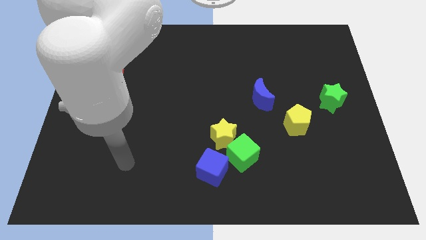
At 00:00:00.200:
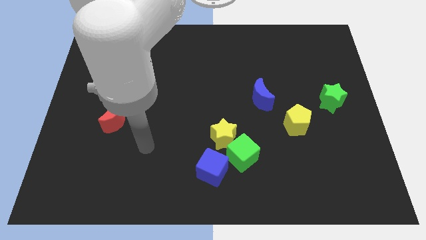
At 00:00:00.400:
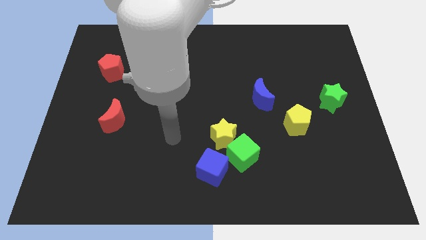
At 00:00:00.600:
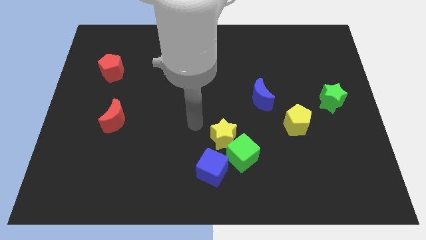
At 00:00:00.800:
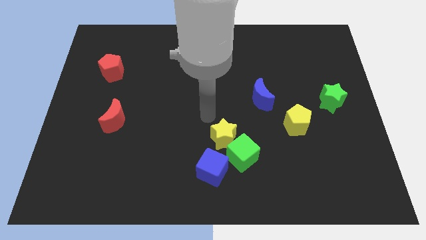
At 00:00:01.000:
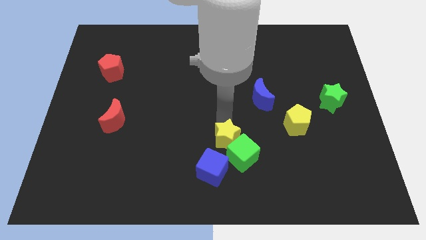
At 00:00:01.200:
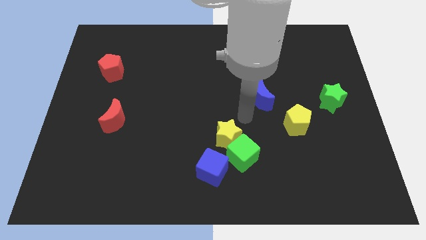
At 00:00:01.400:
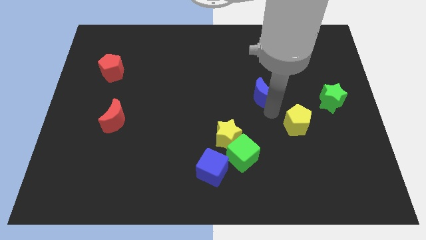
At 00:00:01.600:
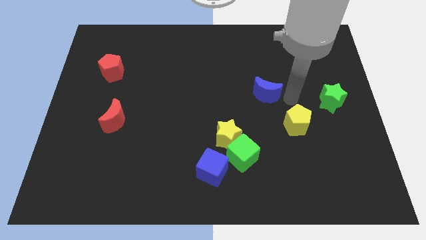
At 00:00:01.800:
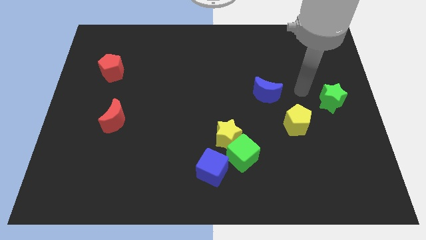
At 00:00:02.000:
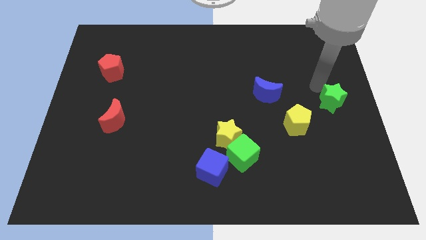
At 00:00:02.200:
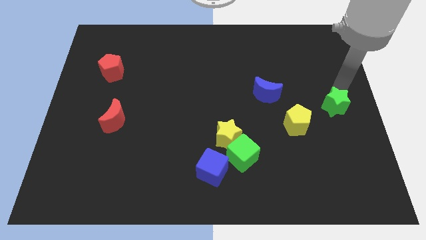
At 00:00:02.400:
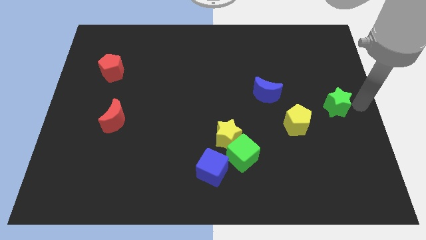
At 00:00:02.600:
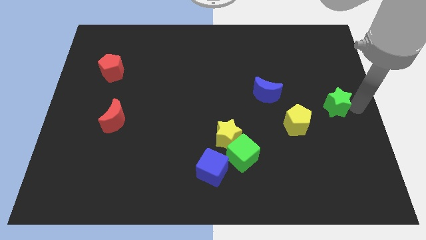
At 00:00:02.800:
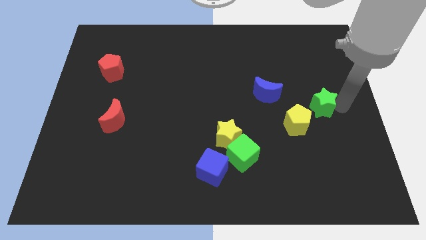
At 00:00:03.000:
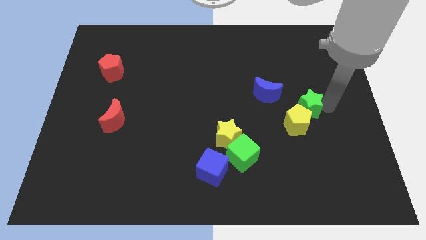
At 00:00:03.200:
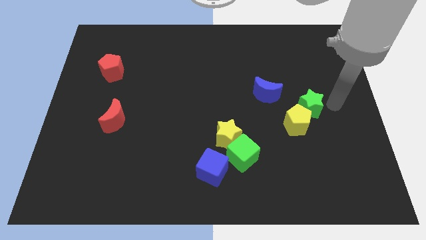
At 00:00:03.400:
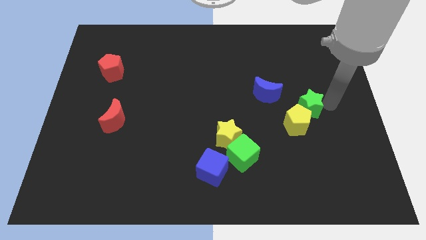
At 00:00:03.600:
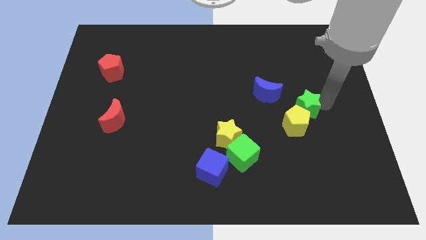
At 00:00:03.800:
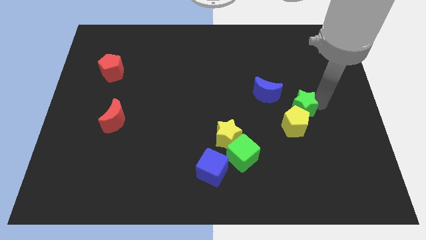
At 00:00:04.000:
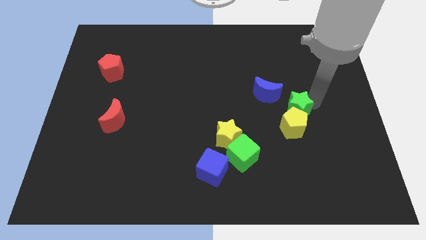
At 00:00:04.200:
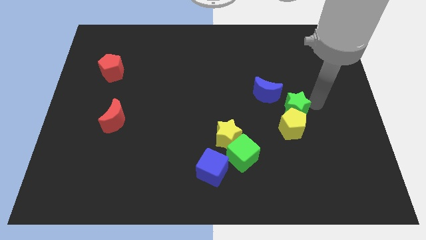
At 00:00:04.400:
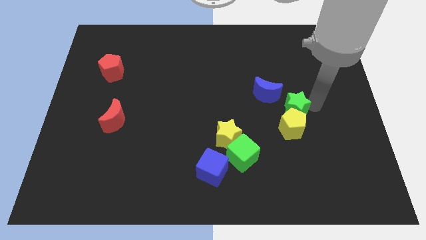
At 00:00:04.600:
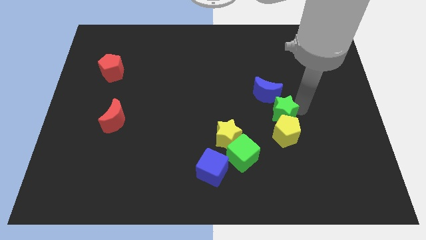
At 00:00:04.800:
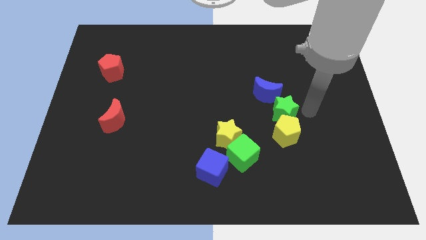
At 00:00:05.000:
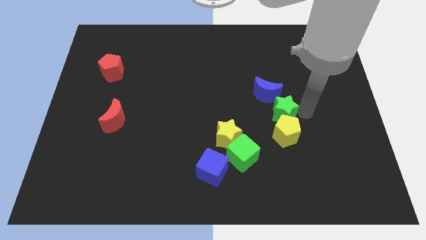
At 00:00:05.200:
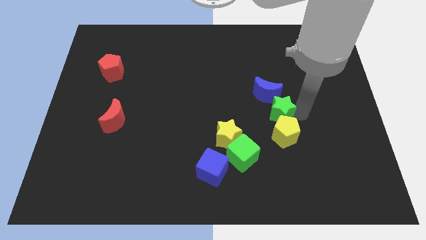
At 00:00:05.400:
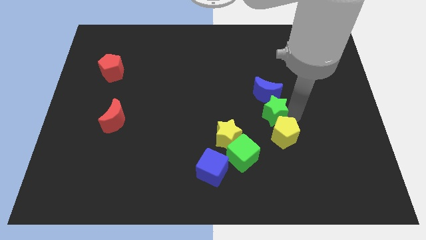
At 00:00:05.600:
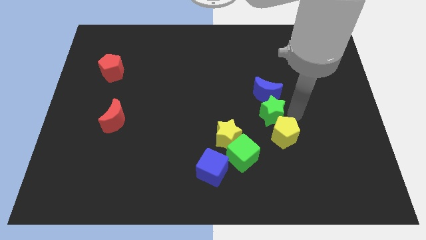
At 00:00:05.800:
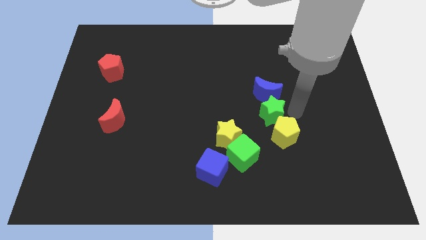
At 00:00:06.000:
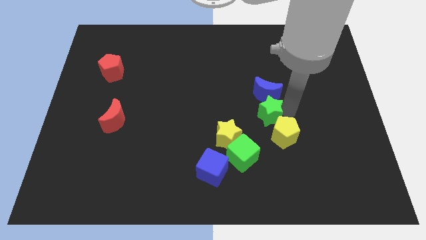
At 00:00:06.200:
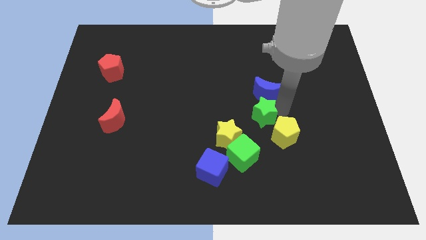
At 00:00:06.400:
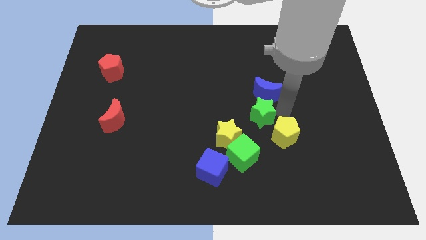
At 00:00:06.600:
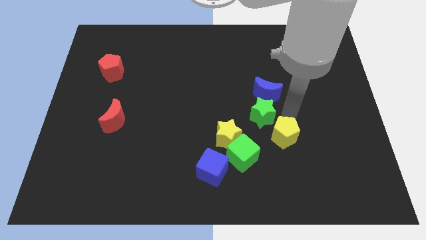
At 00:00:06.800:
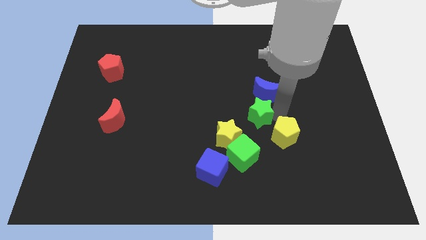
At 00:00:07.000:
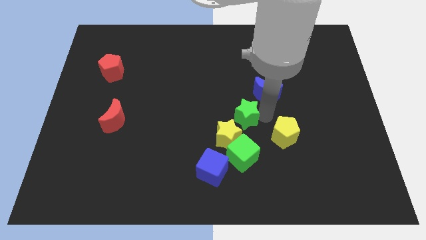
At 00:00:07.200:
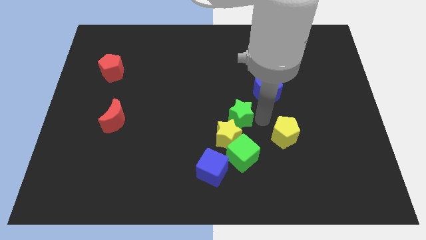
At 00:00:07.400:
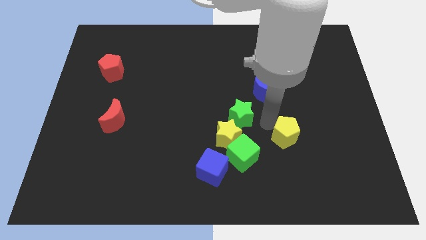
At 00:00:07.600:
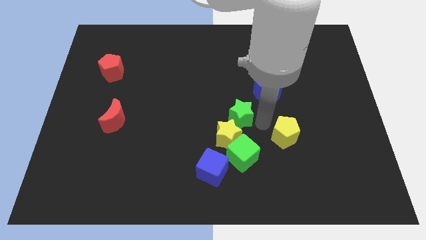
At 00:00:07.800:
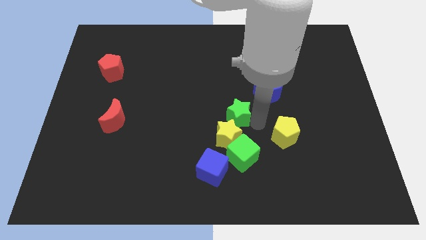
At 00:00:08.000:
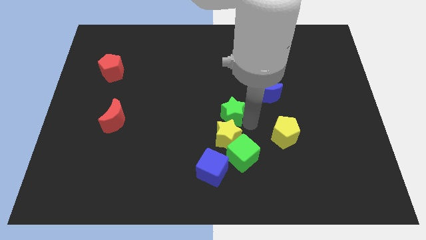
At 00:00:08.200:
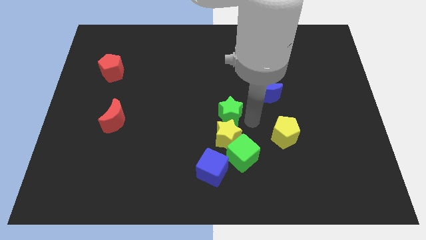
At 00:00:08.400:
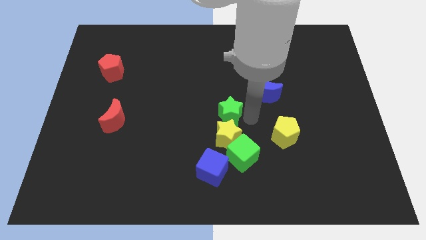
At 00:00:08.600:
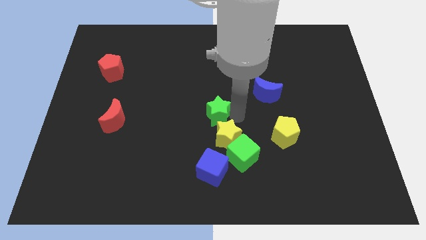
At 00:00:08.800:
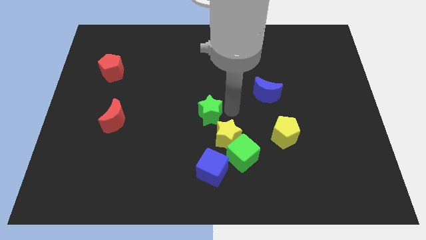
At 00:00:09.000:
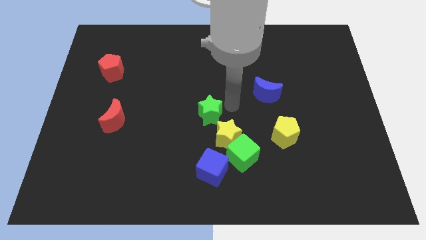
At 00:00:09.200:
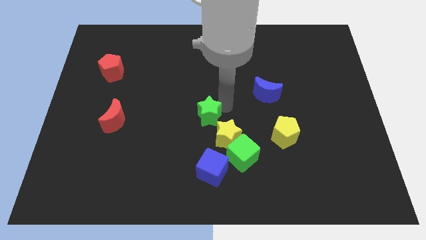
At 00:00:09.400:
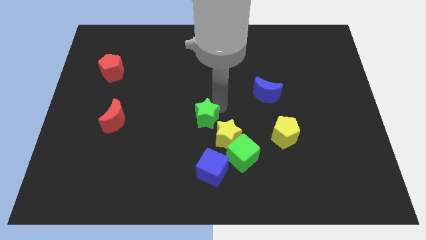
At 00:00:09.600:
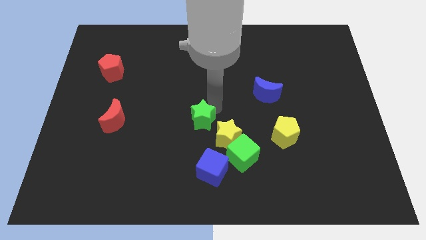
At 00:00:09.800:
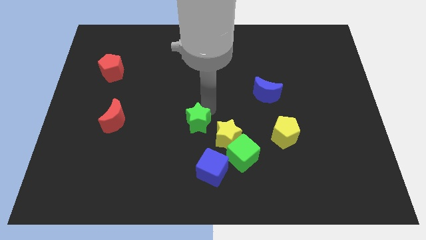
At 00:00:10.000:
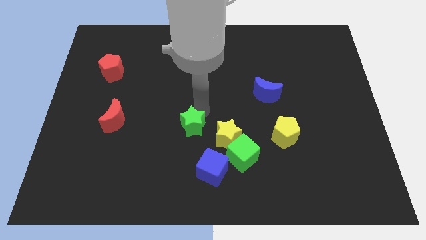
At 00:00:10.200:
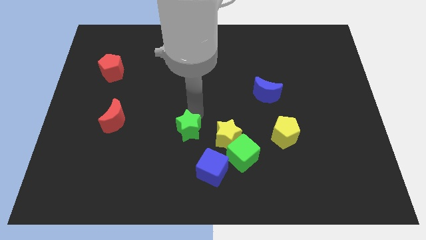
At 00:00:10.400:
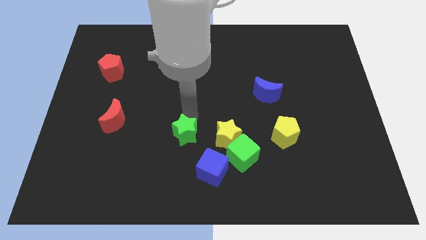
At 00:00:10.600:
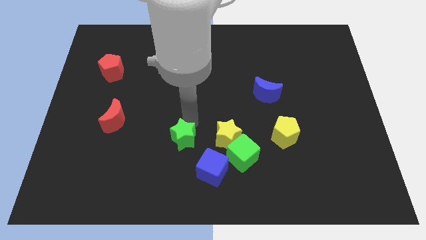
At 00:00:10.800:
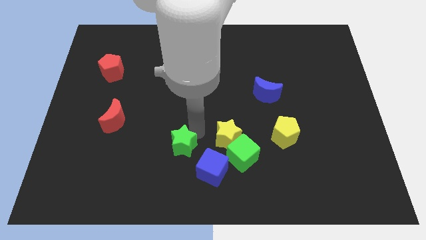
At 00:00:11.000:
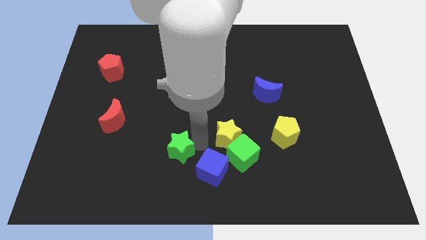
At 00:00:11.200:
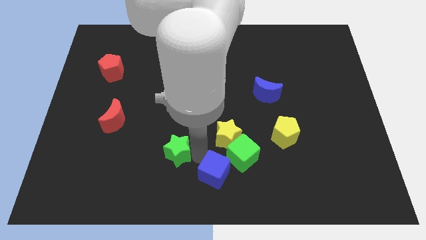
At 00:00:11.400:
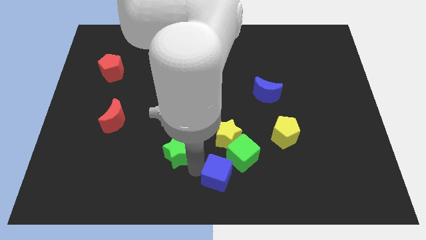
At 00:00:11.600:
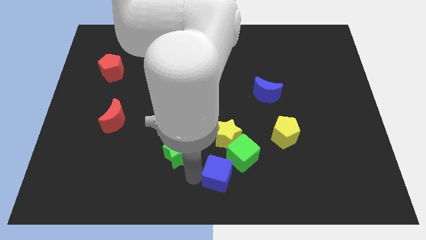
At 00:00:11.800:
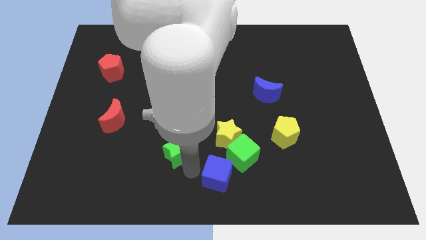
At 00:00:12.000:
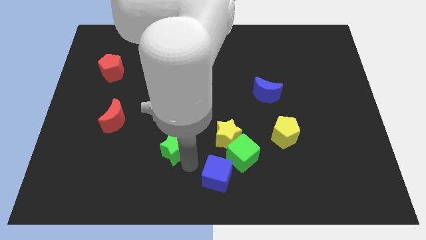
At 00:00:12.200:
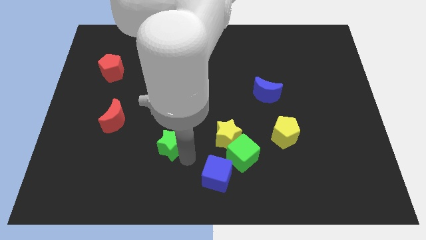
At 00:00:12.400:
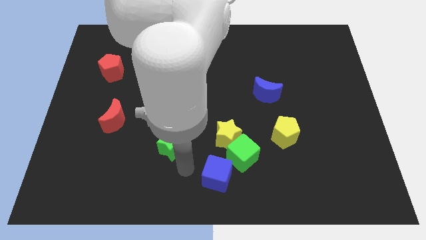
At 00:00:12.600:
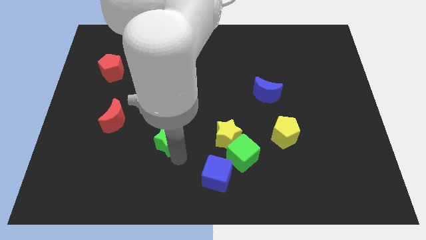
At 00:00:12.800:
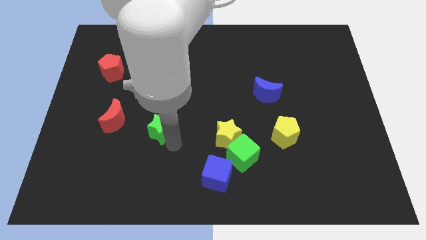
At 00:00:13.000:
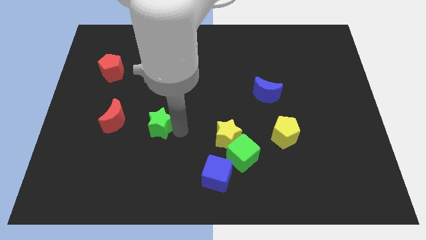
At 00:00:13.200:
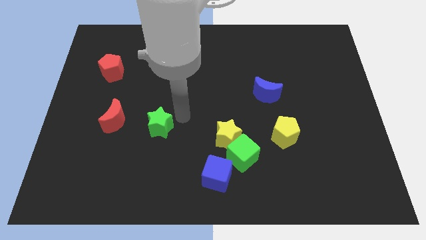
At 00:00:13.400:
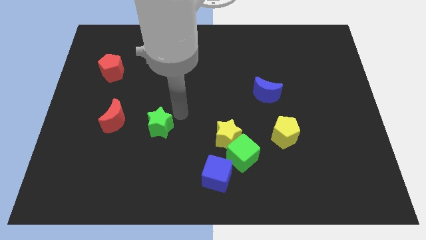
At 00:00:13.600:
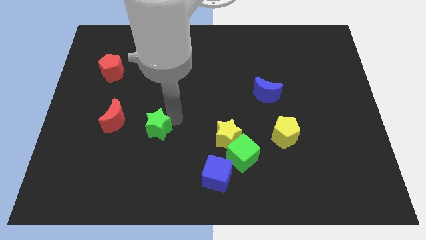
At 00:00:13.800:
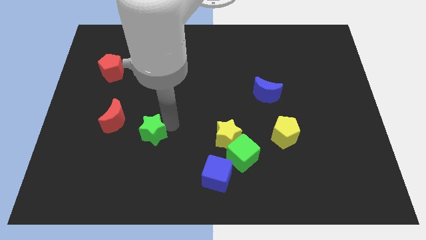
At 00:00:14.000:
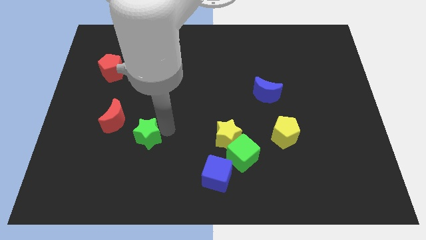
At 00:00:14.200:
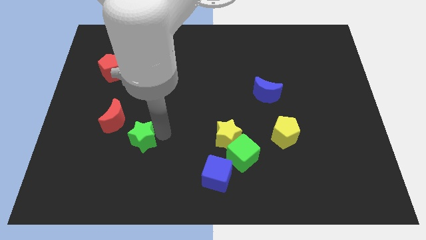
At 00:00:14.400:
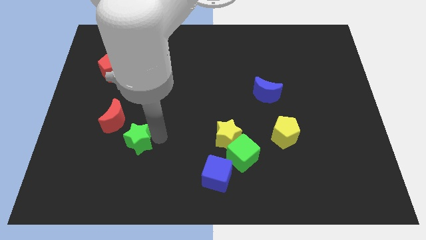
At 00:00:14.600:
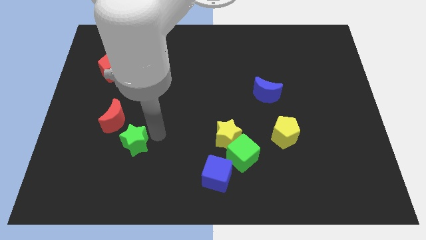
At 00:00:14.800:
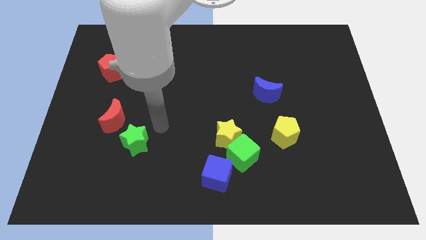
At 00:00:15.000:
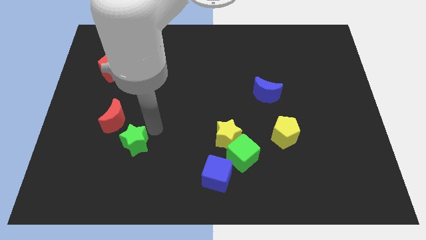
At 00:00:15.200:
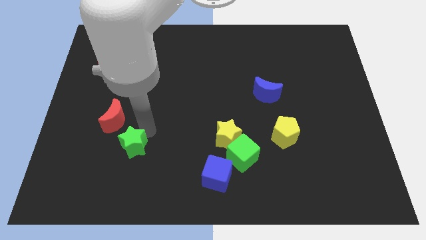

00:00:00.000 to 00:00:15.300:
put the green star to the bottom of the red moon
